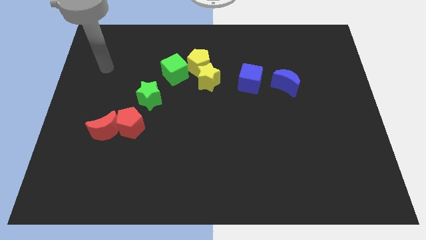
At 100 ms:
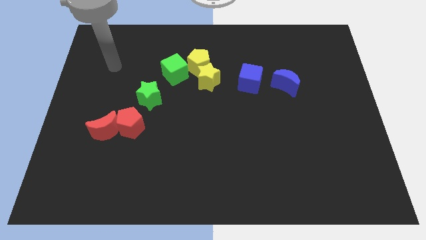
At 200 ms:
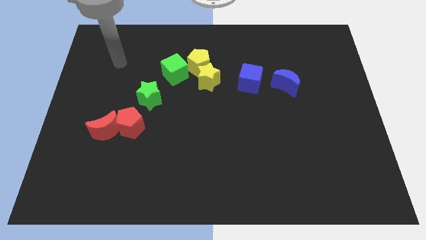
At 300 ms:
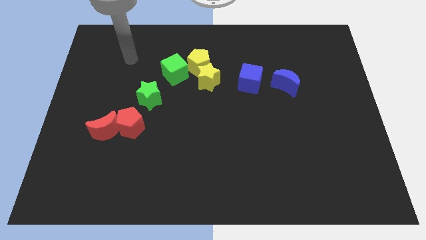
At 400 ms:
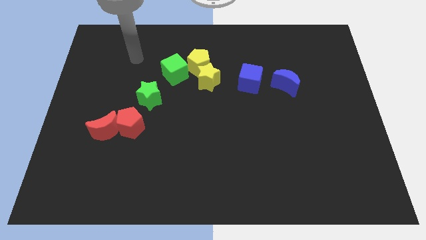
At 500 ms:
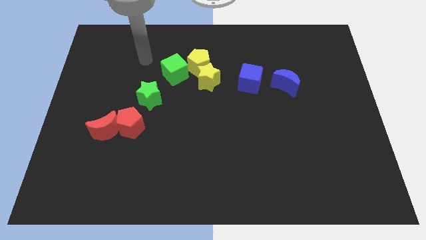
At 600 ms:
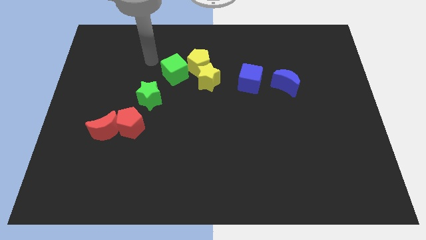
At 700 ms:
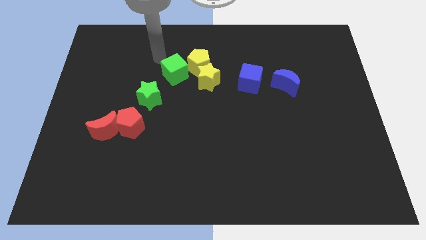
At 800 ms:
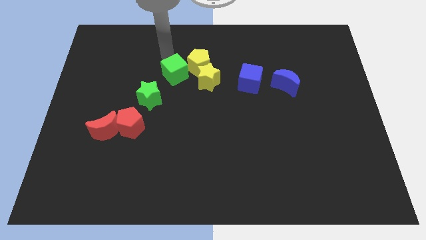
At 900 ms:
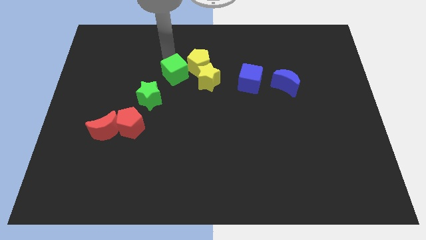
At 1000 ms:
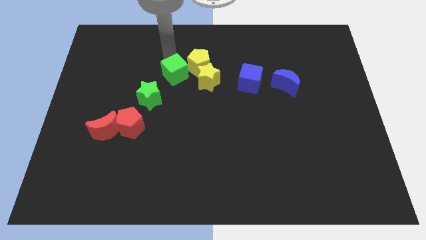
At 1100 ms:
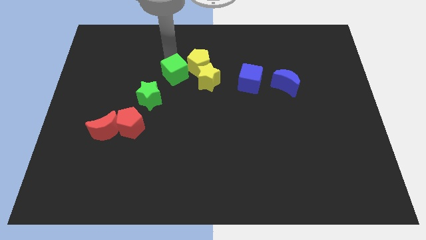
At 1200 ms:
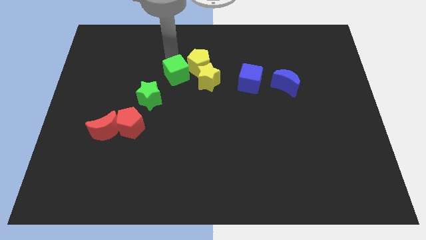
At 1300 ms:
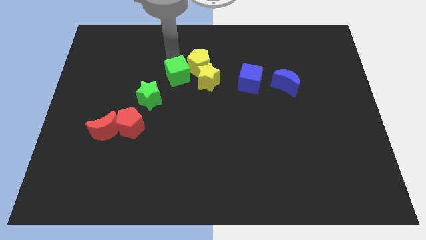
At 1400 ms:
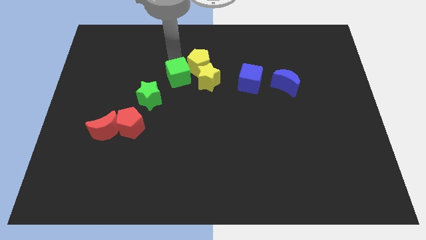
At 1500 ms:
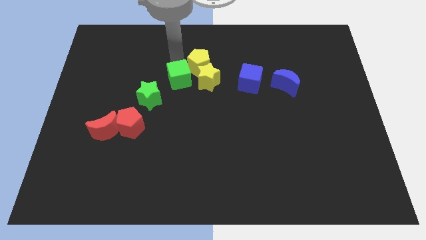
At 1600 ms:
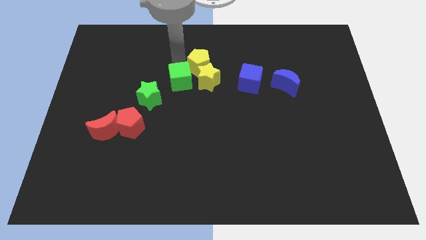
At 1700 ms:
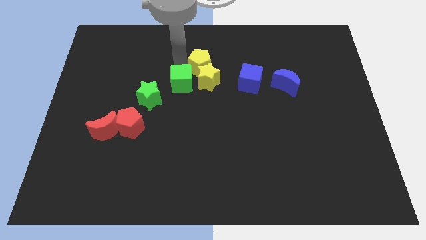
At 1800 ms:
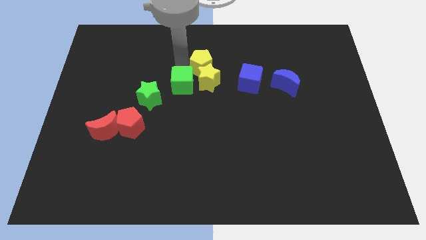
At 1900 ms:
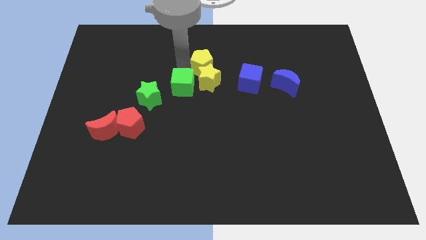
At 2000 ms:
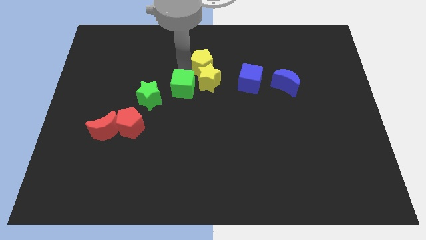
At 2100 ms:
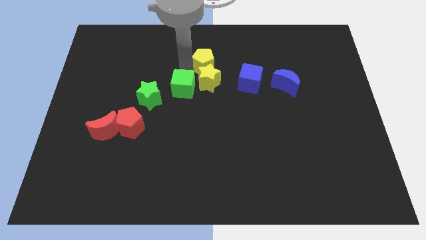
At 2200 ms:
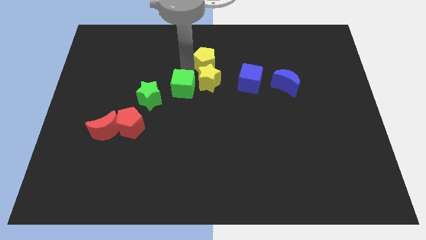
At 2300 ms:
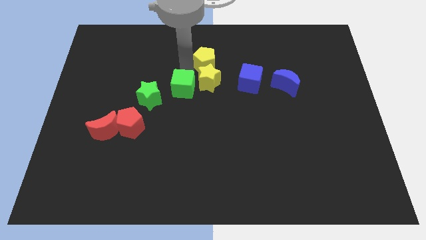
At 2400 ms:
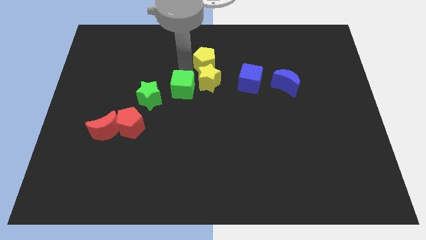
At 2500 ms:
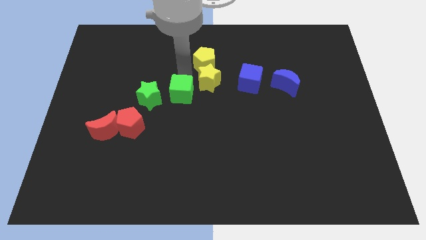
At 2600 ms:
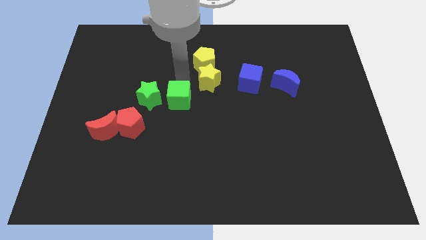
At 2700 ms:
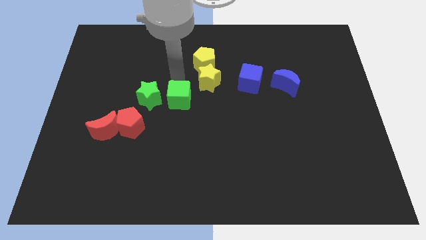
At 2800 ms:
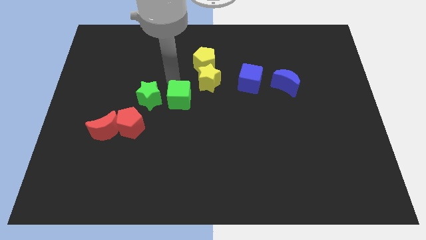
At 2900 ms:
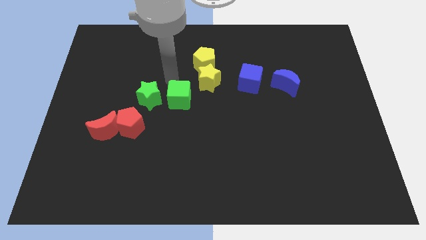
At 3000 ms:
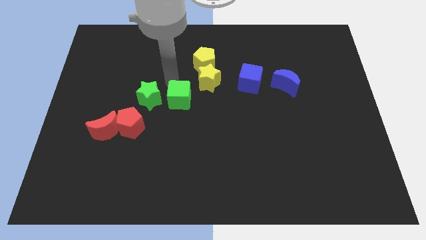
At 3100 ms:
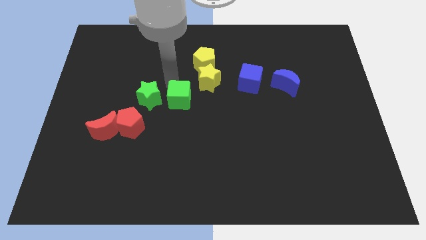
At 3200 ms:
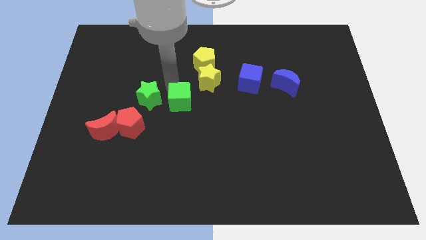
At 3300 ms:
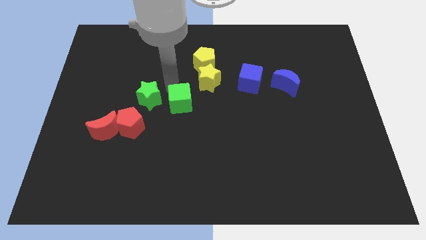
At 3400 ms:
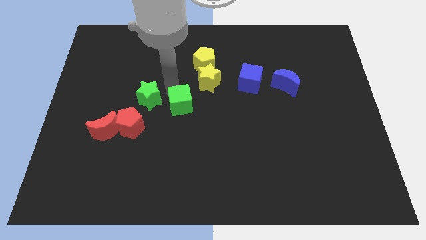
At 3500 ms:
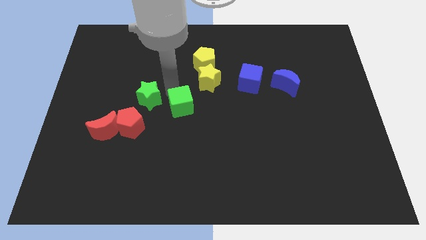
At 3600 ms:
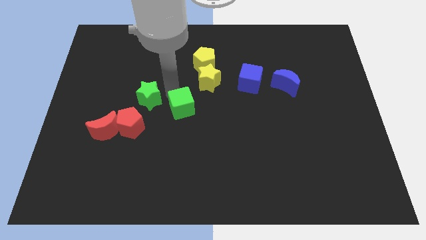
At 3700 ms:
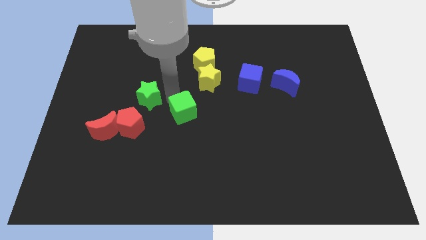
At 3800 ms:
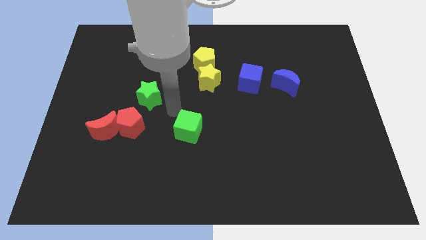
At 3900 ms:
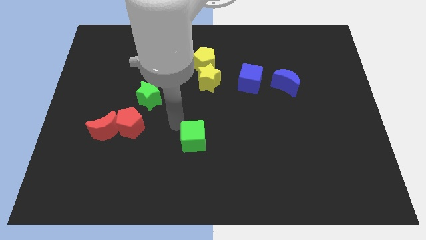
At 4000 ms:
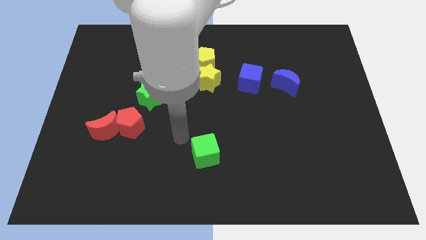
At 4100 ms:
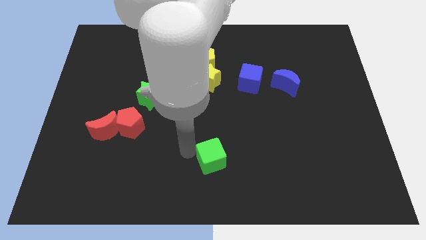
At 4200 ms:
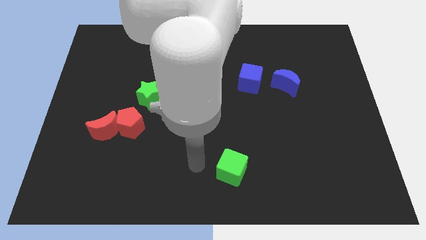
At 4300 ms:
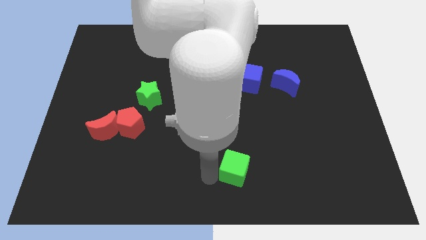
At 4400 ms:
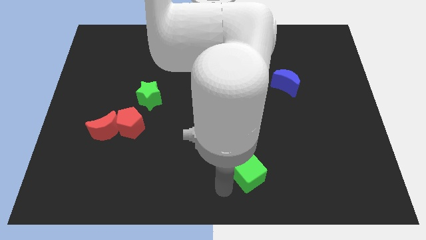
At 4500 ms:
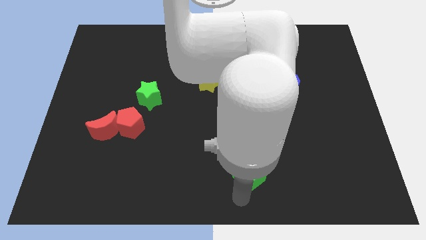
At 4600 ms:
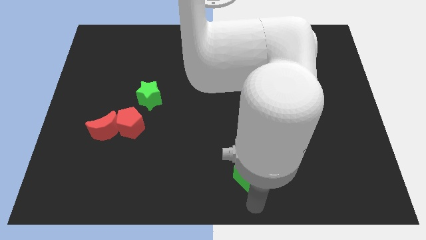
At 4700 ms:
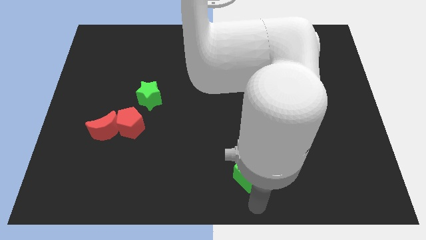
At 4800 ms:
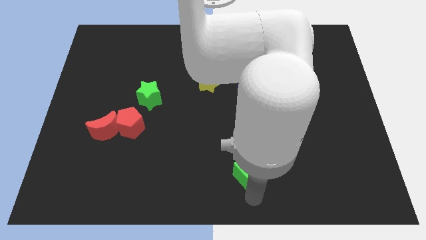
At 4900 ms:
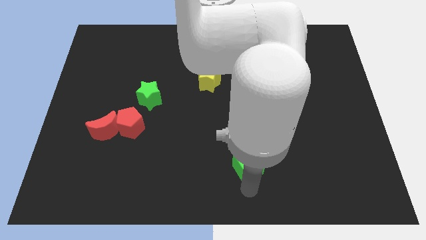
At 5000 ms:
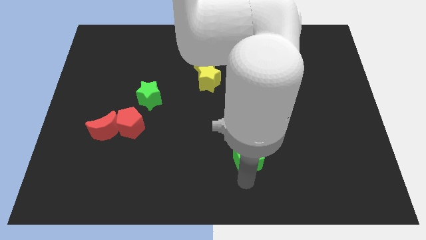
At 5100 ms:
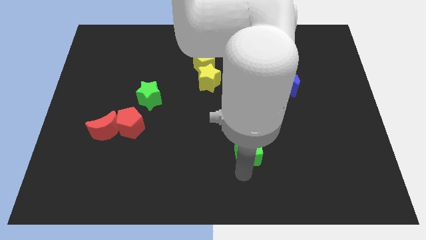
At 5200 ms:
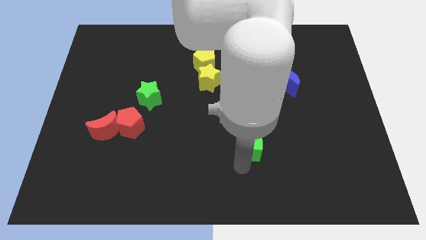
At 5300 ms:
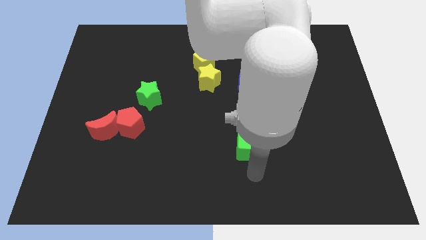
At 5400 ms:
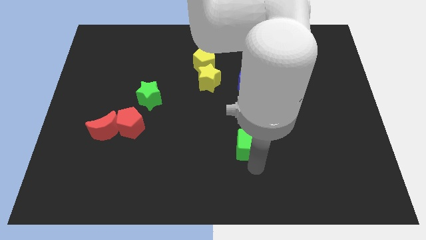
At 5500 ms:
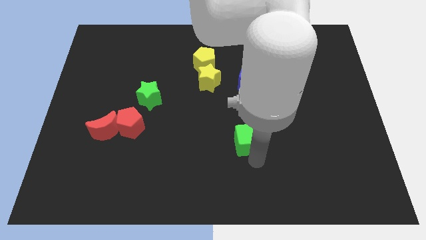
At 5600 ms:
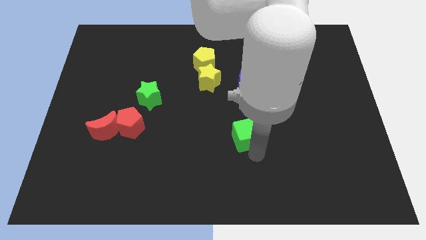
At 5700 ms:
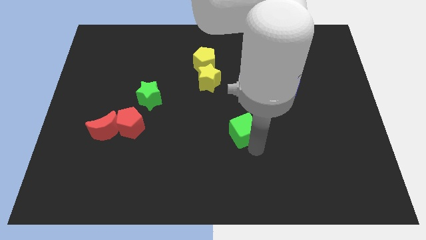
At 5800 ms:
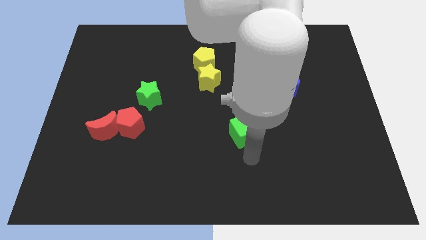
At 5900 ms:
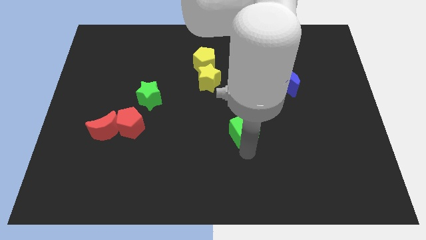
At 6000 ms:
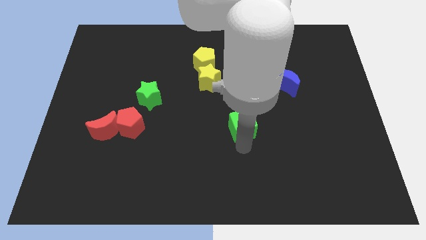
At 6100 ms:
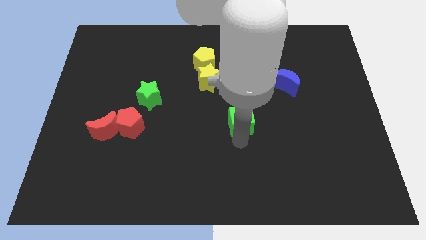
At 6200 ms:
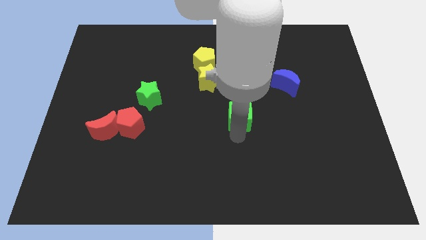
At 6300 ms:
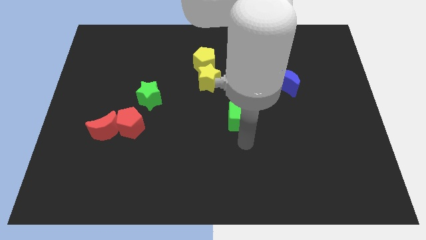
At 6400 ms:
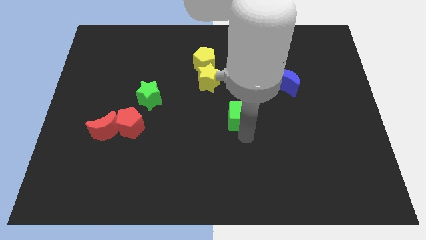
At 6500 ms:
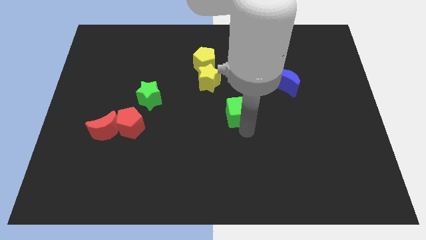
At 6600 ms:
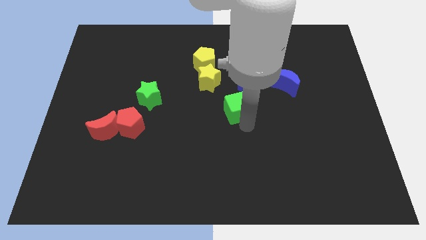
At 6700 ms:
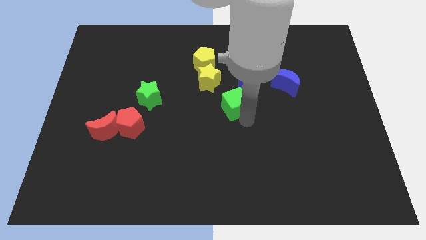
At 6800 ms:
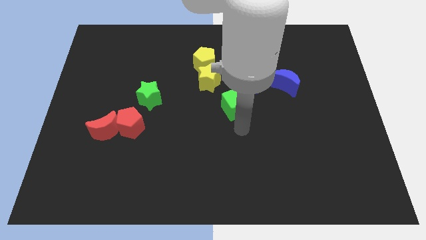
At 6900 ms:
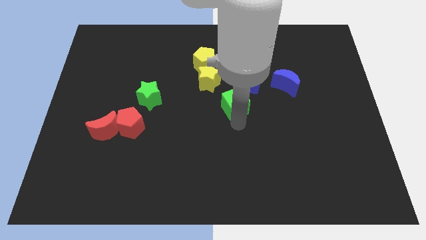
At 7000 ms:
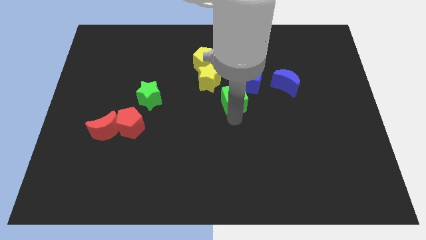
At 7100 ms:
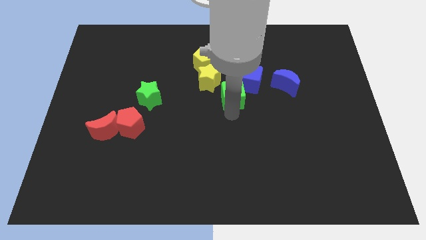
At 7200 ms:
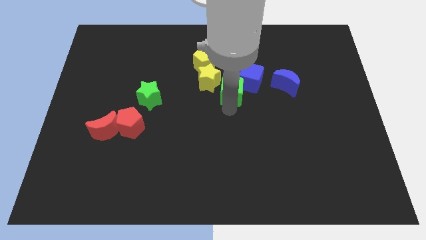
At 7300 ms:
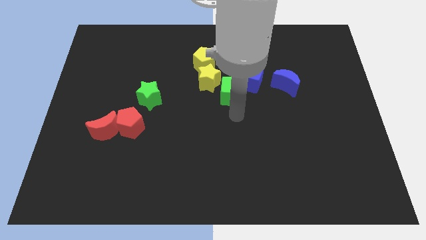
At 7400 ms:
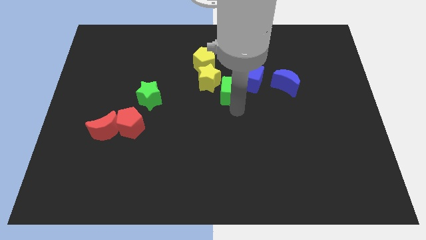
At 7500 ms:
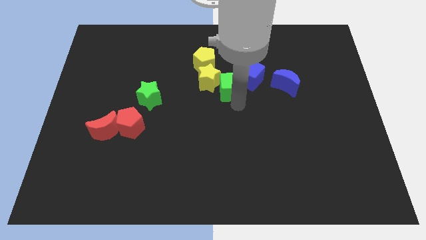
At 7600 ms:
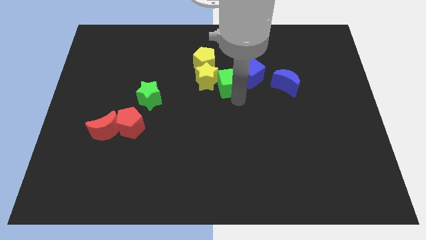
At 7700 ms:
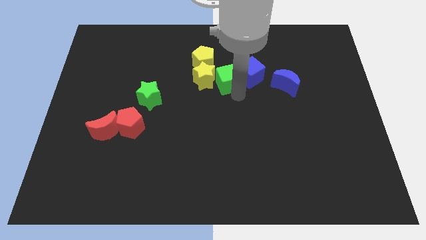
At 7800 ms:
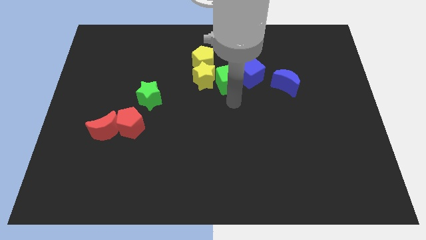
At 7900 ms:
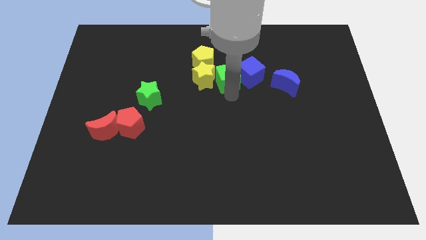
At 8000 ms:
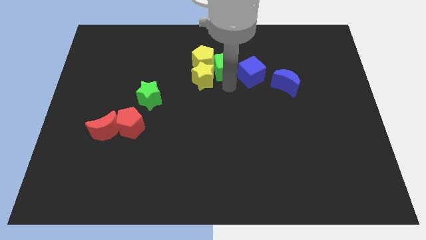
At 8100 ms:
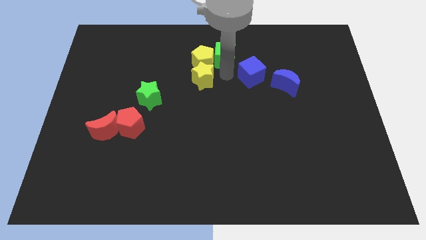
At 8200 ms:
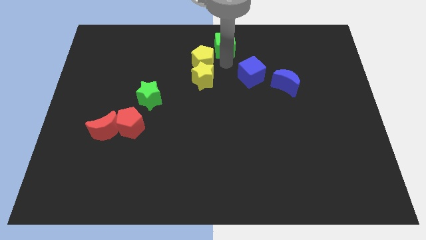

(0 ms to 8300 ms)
move the green cube to the top side
